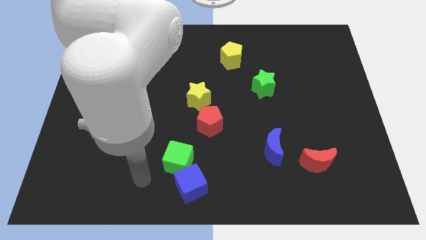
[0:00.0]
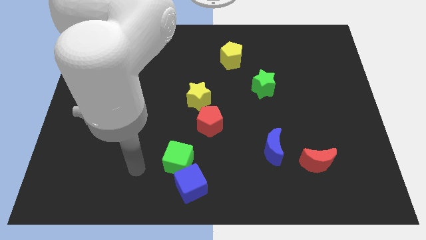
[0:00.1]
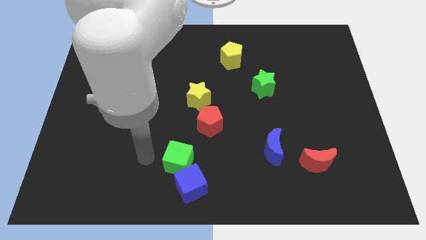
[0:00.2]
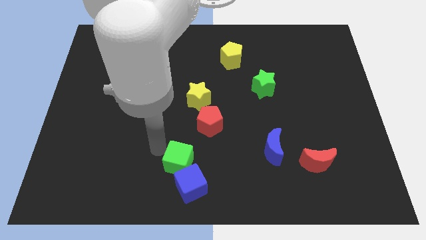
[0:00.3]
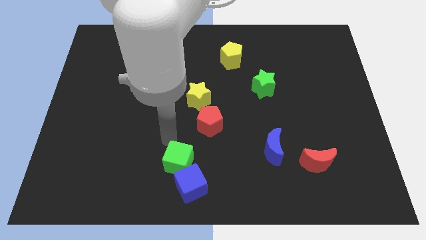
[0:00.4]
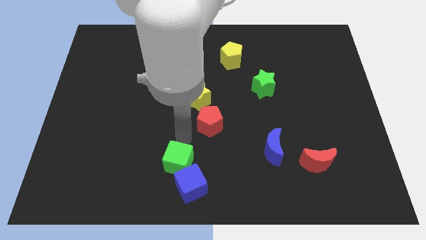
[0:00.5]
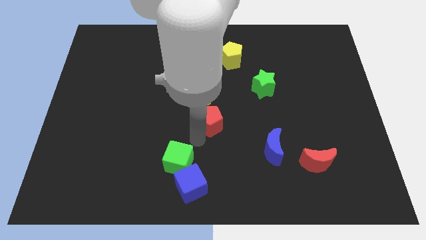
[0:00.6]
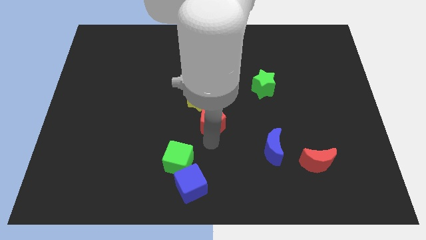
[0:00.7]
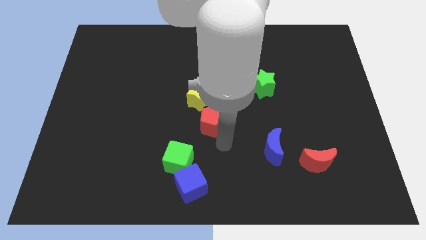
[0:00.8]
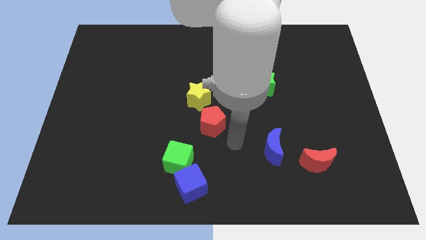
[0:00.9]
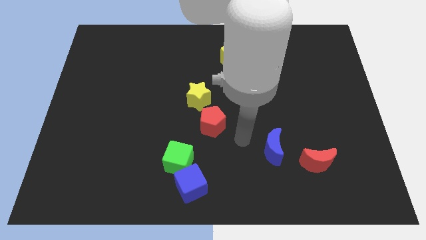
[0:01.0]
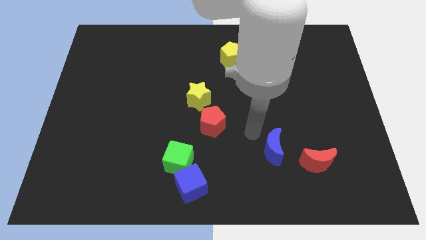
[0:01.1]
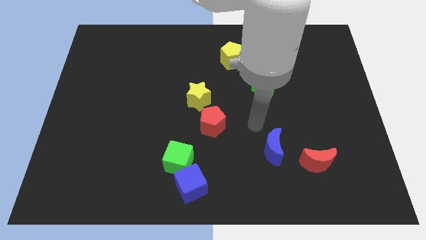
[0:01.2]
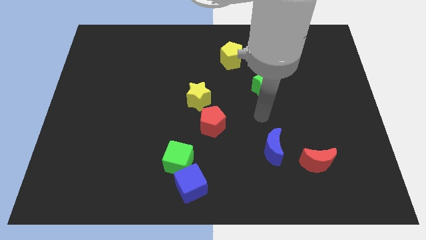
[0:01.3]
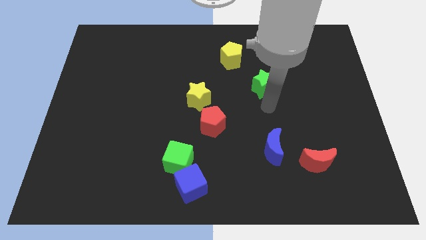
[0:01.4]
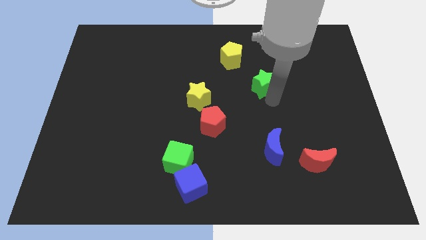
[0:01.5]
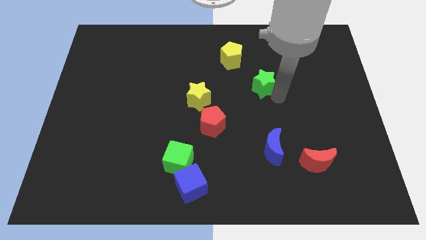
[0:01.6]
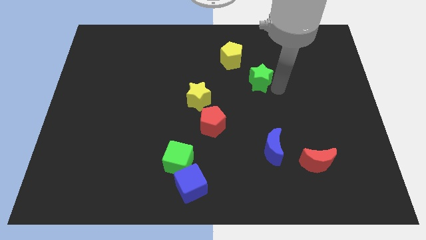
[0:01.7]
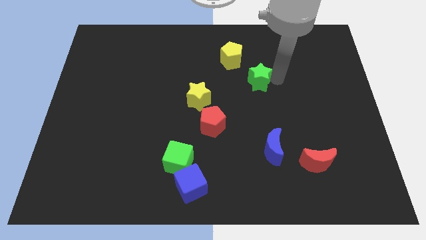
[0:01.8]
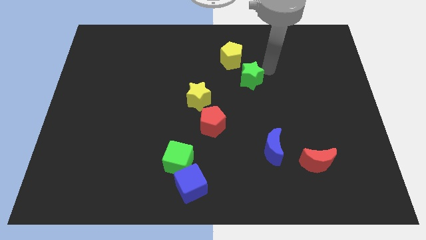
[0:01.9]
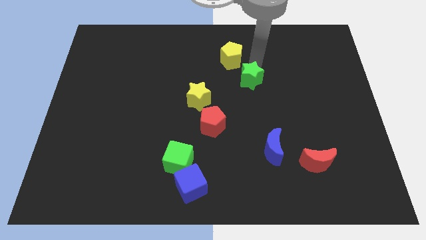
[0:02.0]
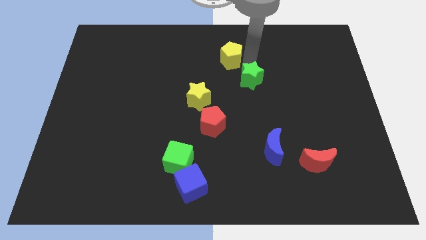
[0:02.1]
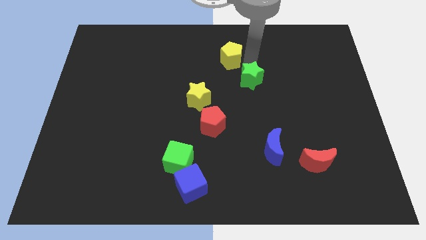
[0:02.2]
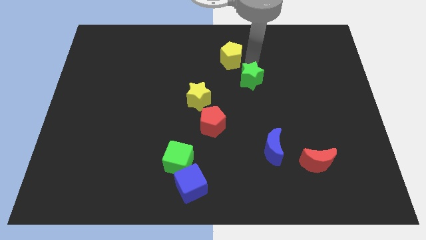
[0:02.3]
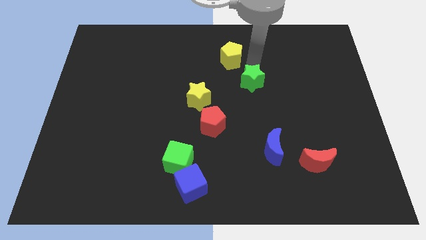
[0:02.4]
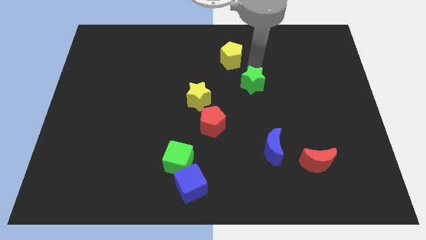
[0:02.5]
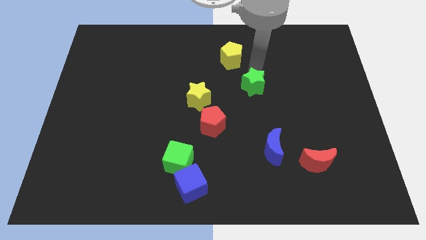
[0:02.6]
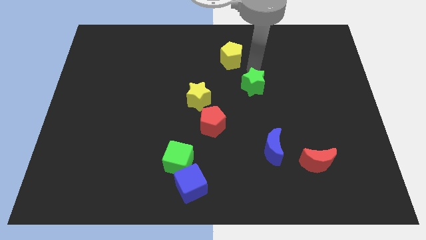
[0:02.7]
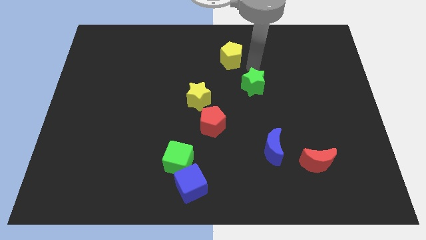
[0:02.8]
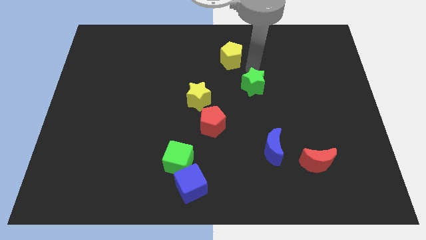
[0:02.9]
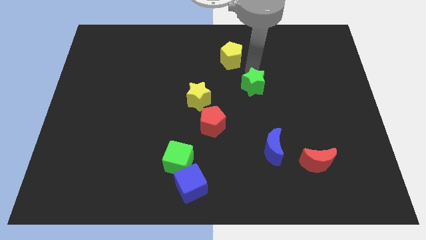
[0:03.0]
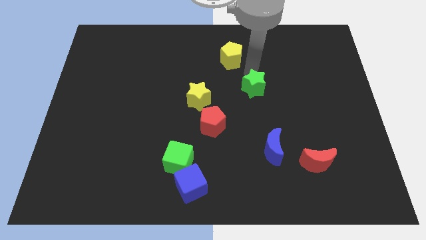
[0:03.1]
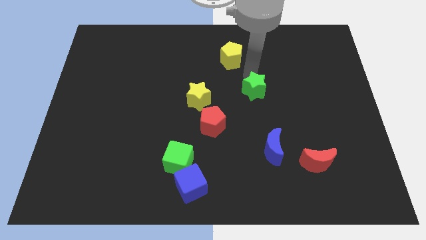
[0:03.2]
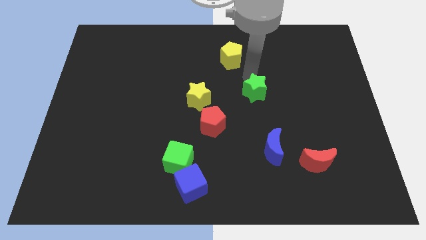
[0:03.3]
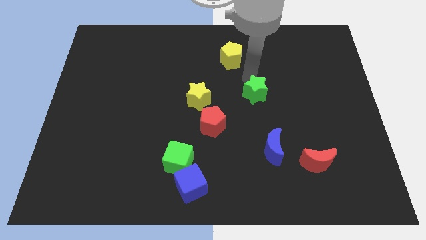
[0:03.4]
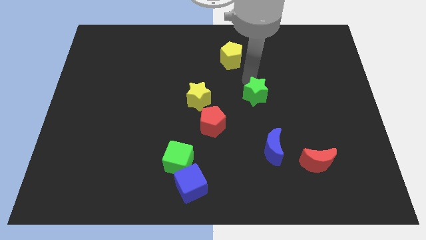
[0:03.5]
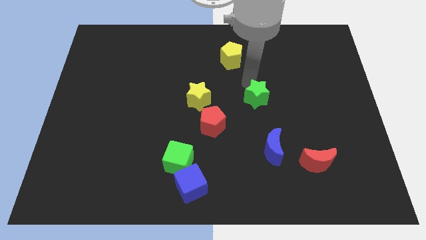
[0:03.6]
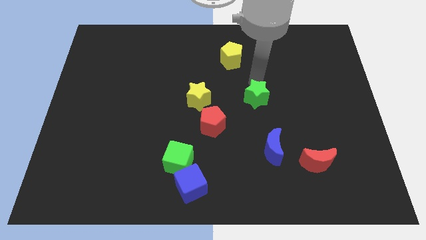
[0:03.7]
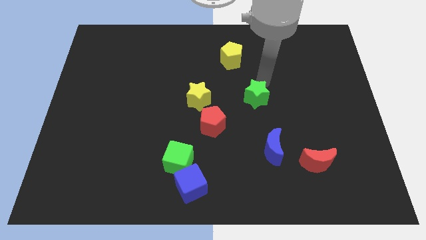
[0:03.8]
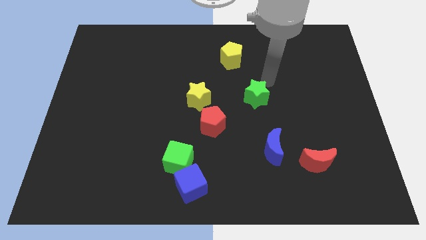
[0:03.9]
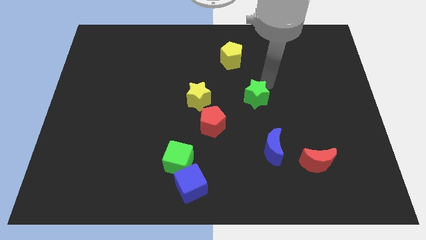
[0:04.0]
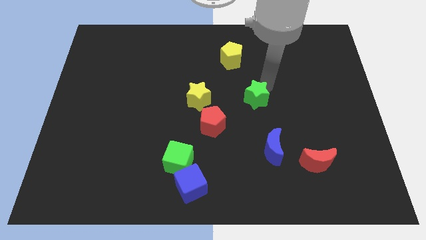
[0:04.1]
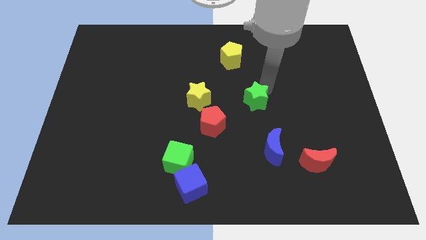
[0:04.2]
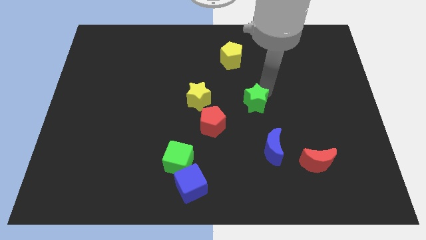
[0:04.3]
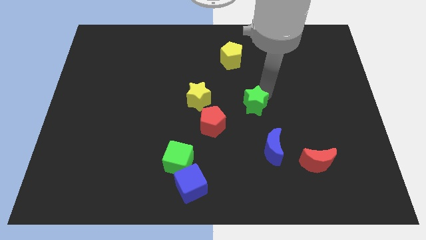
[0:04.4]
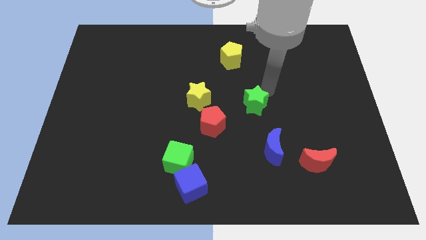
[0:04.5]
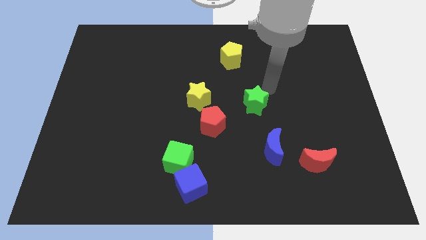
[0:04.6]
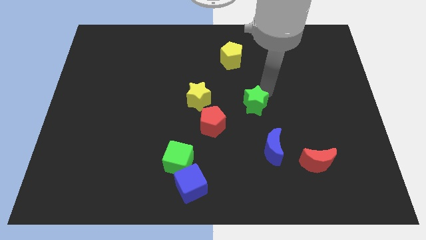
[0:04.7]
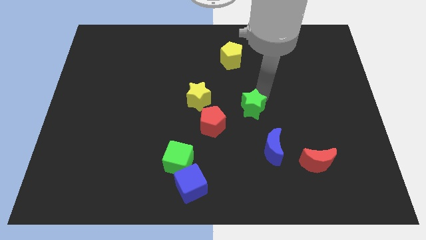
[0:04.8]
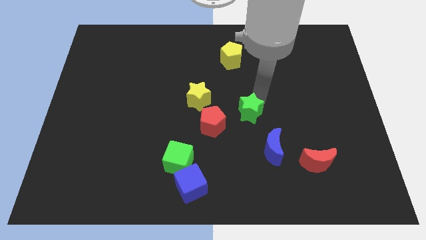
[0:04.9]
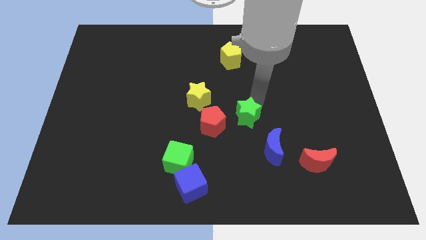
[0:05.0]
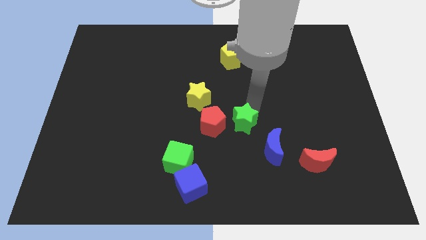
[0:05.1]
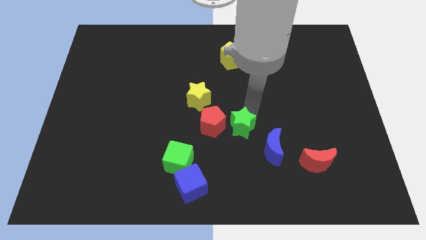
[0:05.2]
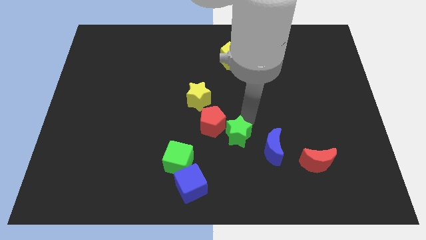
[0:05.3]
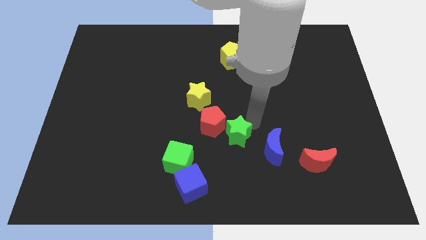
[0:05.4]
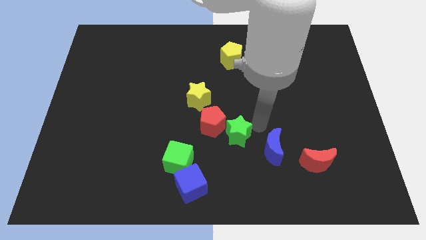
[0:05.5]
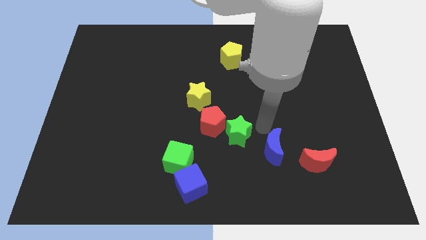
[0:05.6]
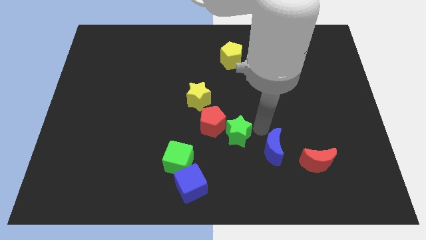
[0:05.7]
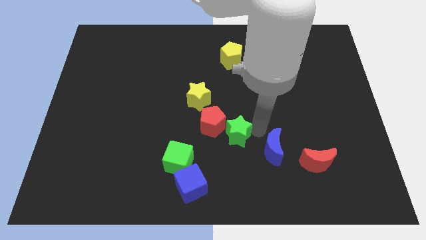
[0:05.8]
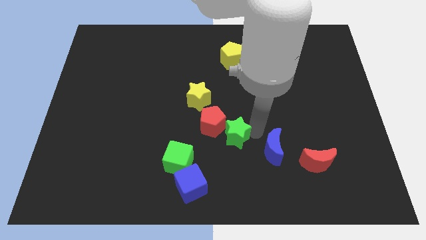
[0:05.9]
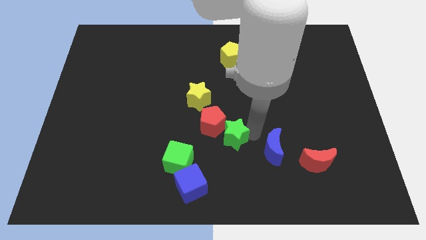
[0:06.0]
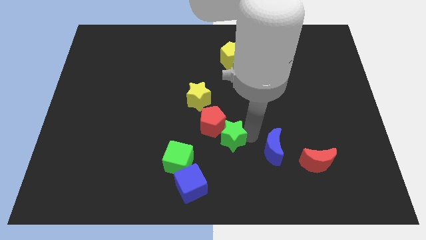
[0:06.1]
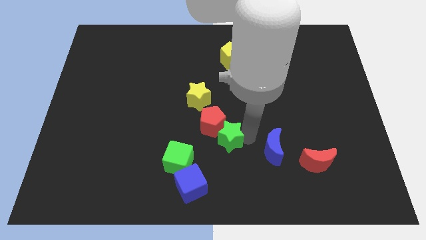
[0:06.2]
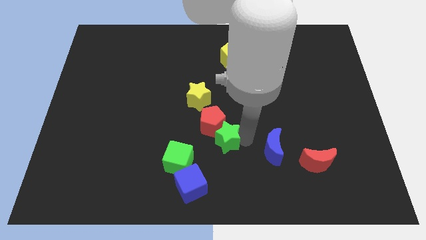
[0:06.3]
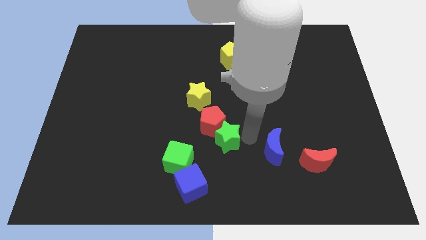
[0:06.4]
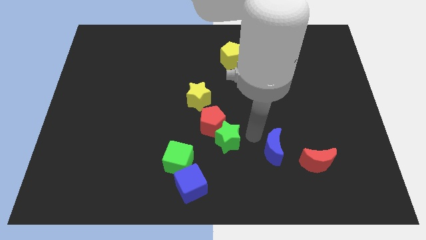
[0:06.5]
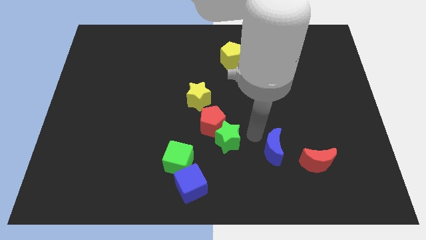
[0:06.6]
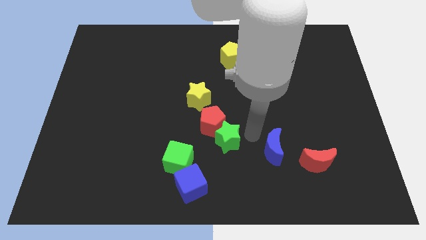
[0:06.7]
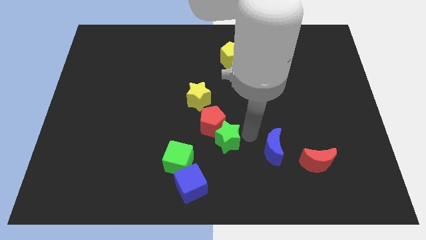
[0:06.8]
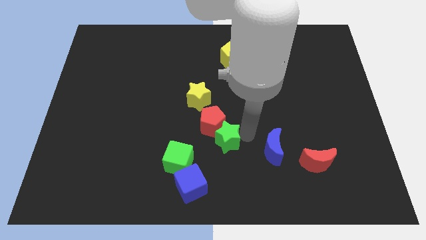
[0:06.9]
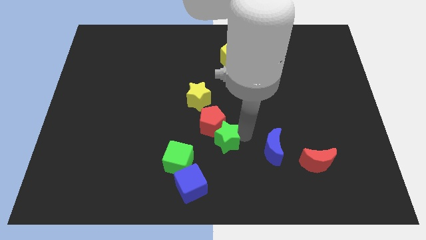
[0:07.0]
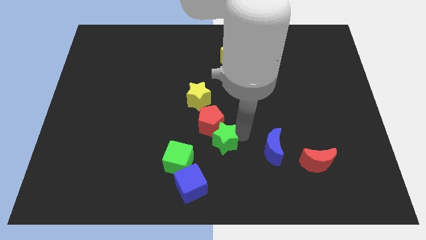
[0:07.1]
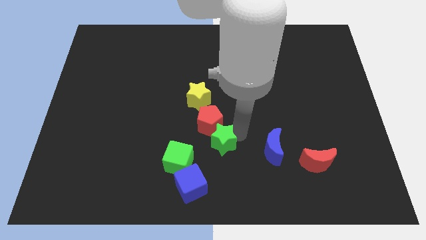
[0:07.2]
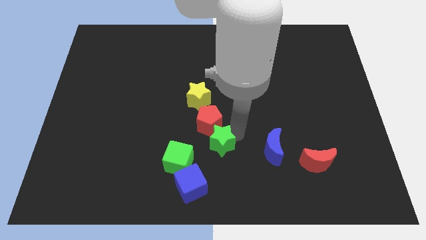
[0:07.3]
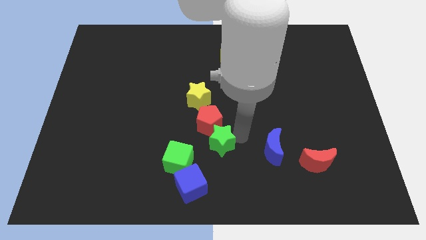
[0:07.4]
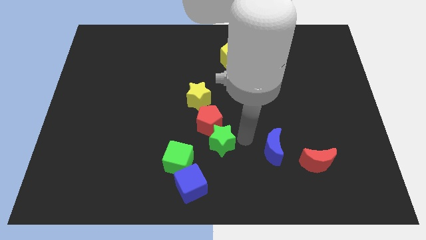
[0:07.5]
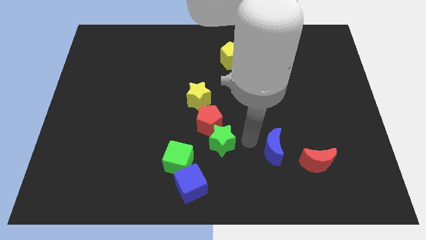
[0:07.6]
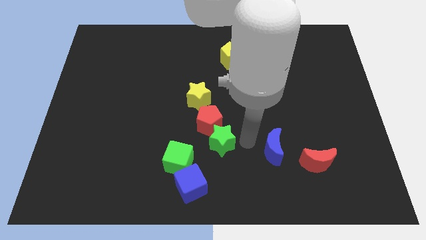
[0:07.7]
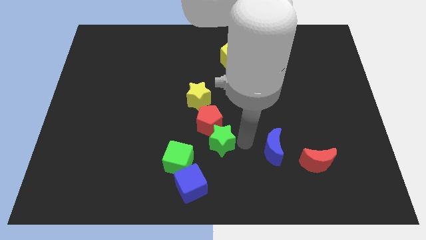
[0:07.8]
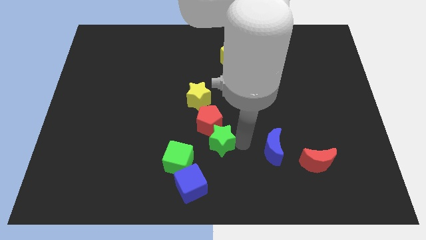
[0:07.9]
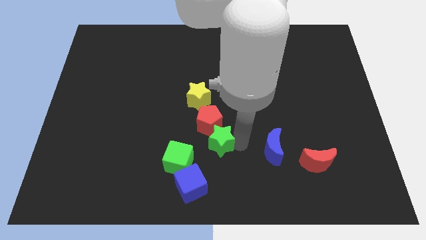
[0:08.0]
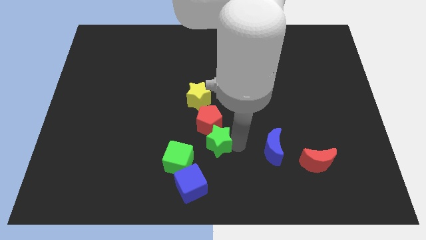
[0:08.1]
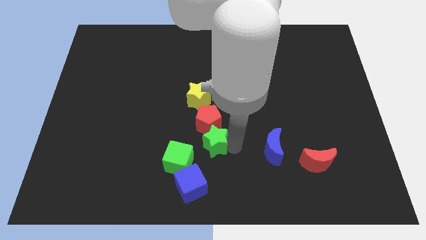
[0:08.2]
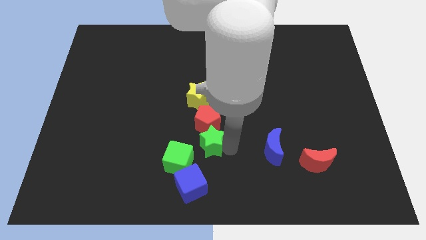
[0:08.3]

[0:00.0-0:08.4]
push the green star diagonally down and left
